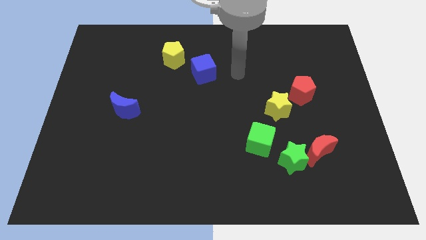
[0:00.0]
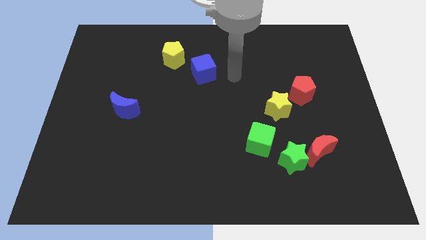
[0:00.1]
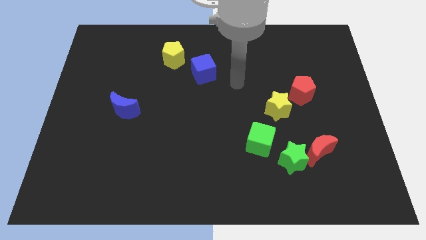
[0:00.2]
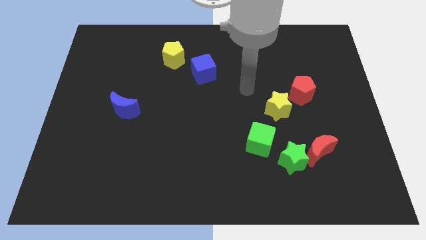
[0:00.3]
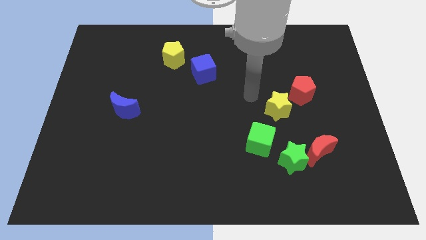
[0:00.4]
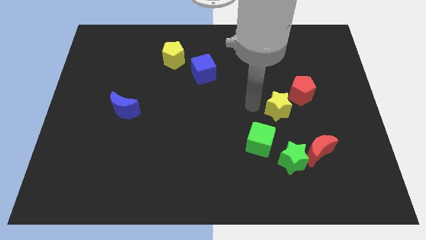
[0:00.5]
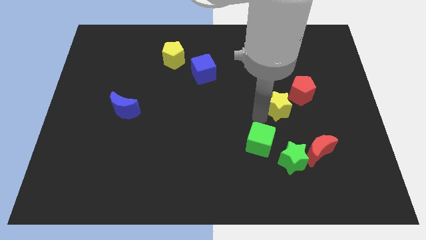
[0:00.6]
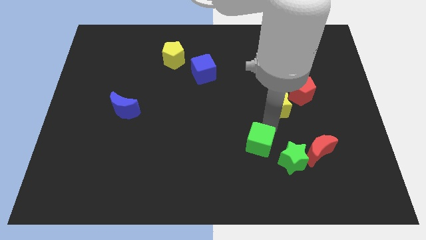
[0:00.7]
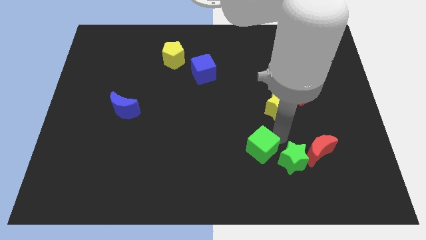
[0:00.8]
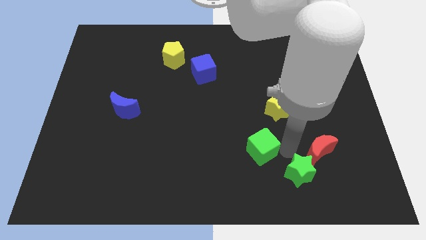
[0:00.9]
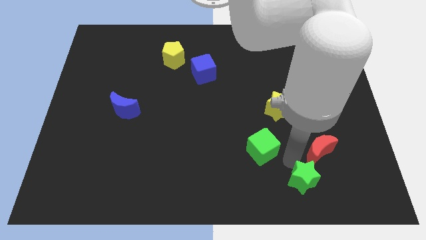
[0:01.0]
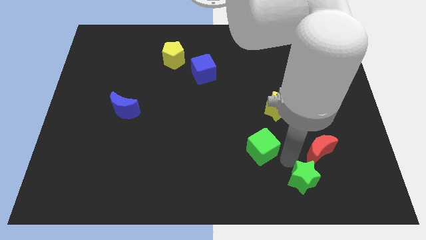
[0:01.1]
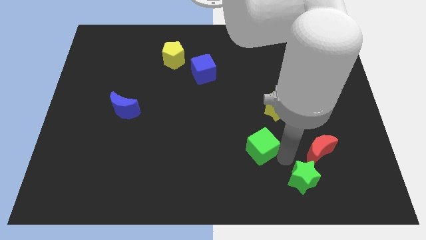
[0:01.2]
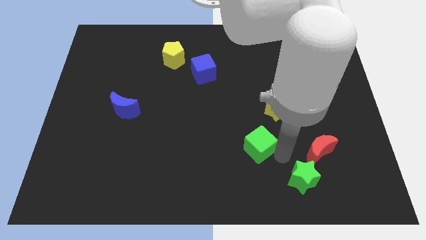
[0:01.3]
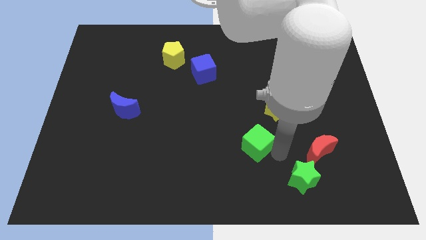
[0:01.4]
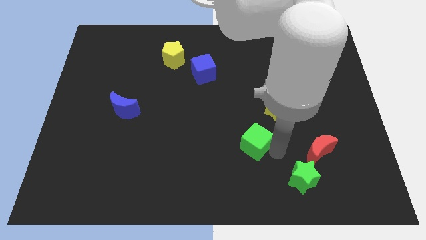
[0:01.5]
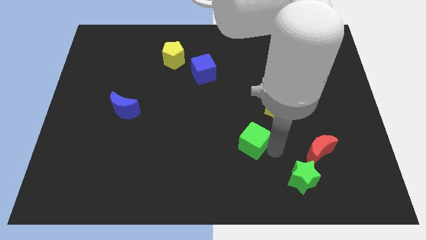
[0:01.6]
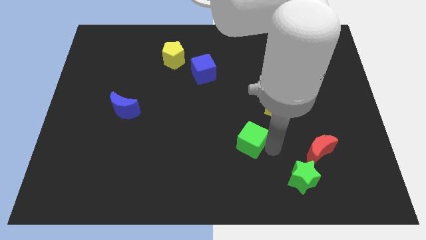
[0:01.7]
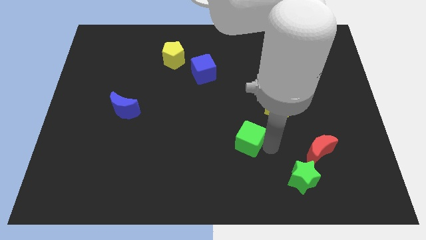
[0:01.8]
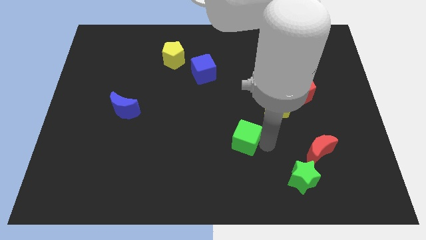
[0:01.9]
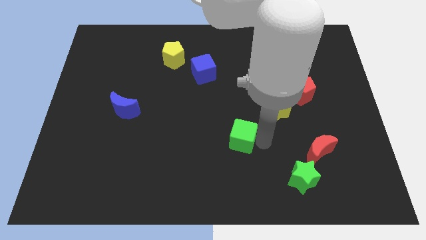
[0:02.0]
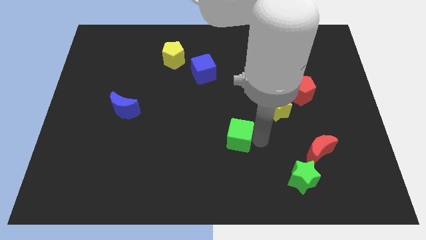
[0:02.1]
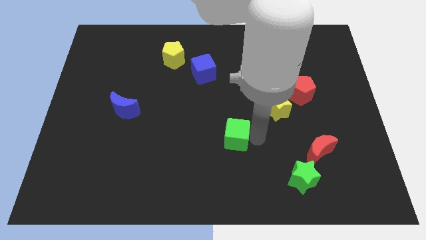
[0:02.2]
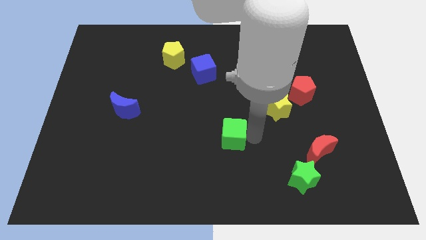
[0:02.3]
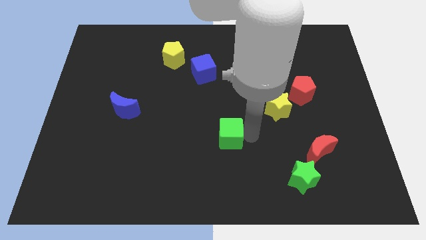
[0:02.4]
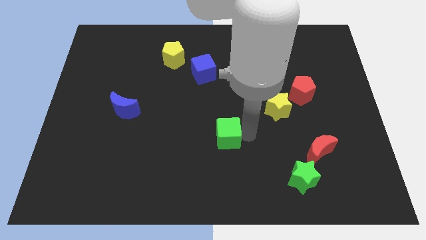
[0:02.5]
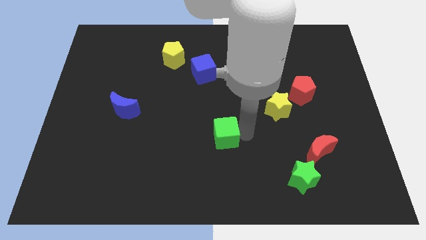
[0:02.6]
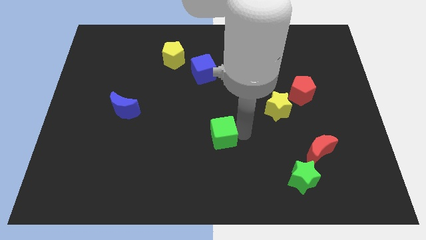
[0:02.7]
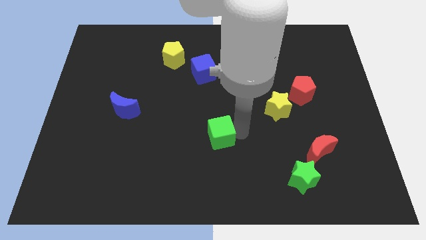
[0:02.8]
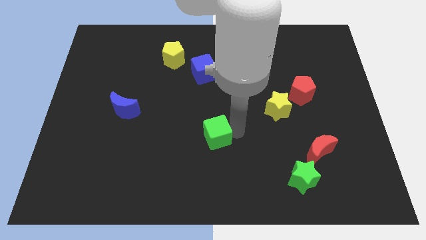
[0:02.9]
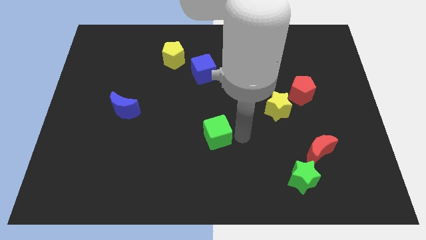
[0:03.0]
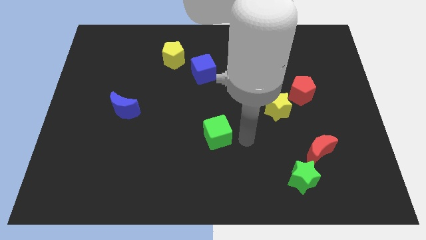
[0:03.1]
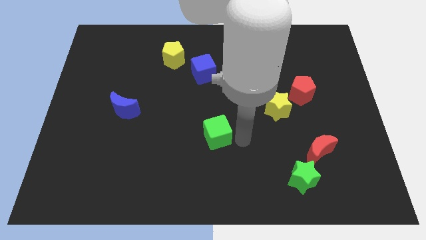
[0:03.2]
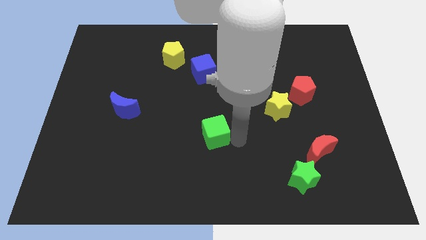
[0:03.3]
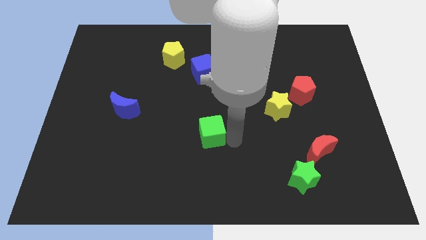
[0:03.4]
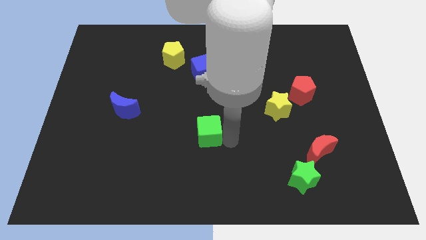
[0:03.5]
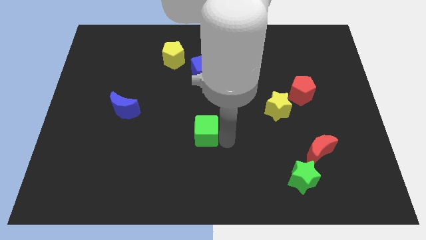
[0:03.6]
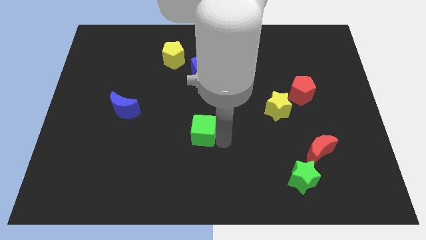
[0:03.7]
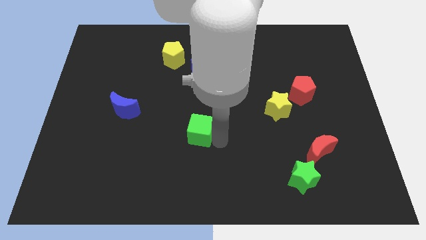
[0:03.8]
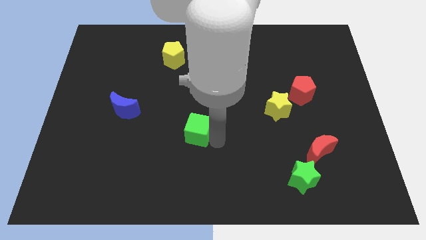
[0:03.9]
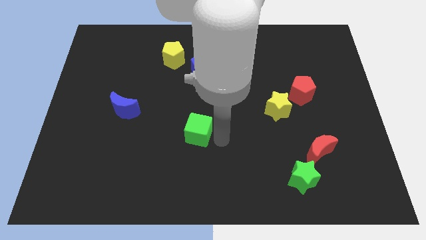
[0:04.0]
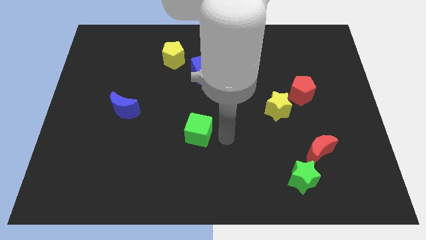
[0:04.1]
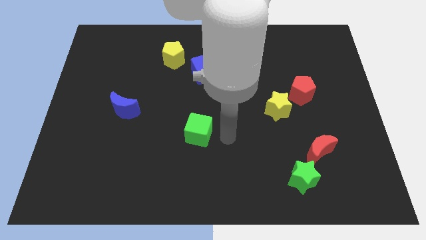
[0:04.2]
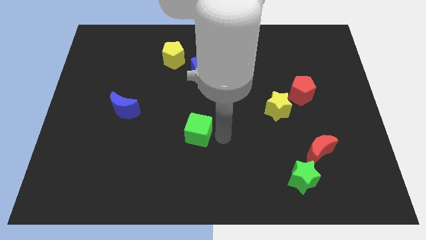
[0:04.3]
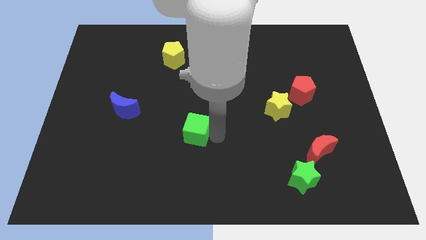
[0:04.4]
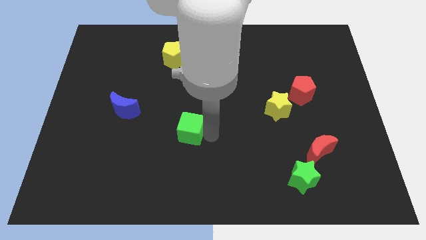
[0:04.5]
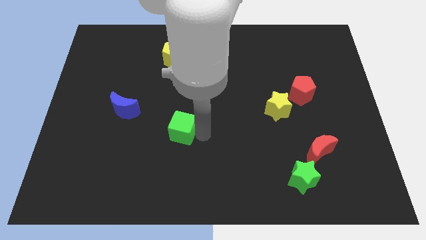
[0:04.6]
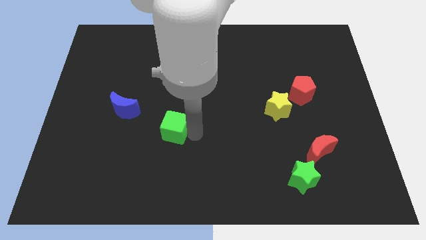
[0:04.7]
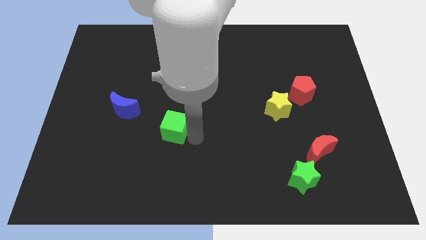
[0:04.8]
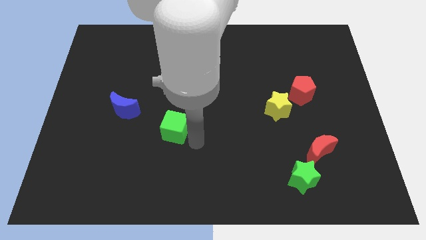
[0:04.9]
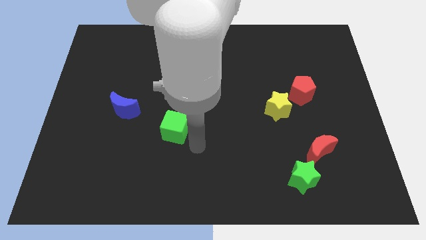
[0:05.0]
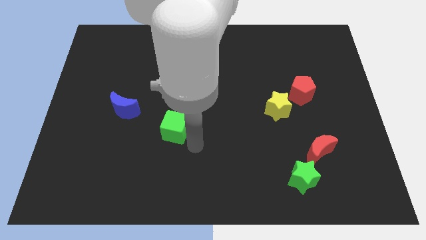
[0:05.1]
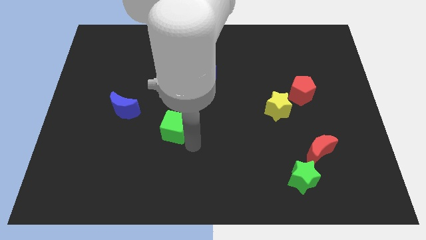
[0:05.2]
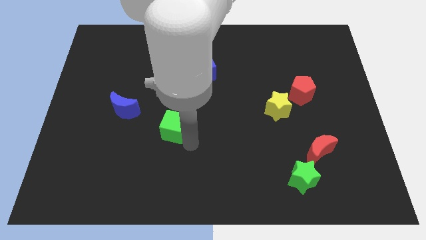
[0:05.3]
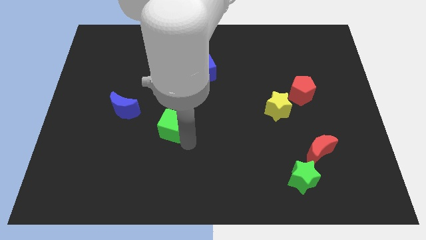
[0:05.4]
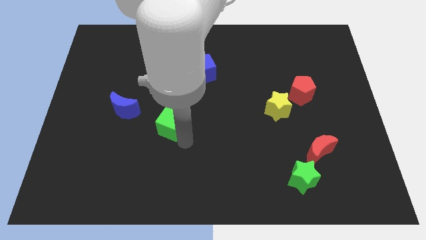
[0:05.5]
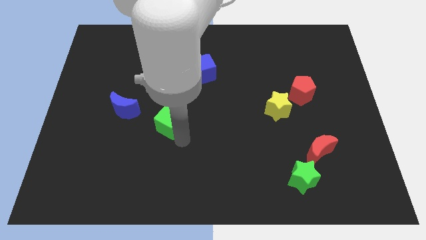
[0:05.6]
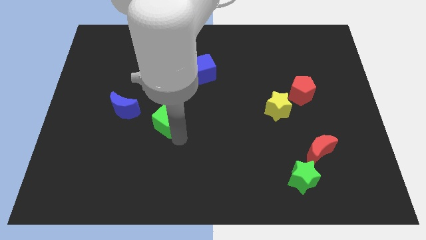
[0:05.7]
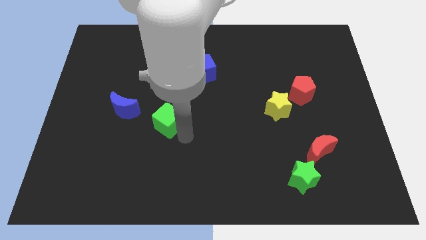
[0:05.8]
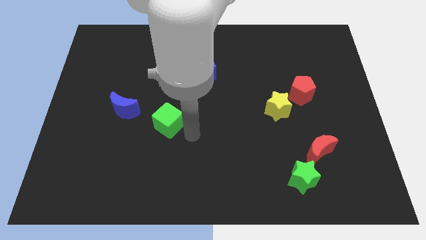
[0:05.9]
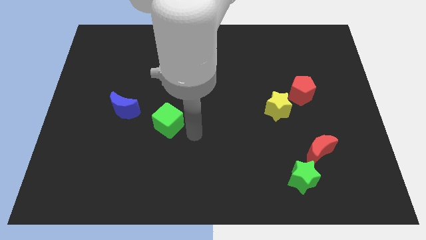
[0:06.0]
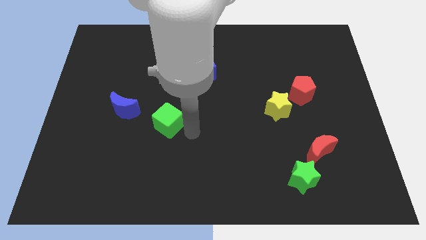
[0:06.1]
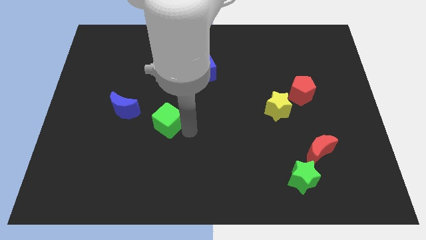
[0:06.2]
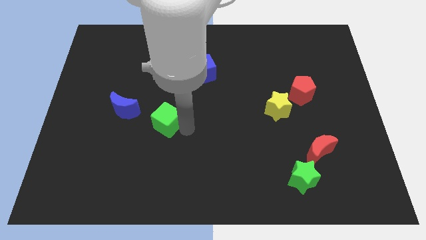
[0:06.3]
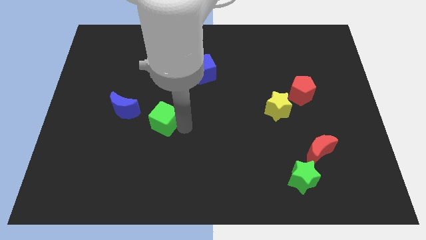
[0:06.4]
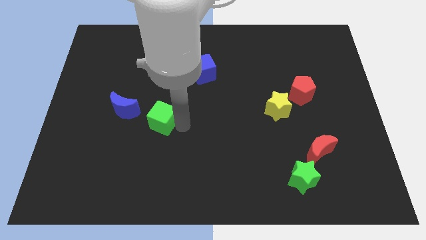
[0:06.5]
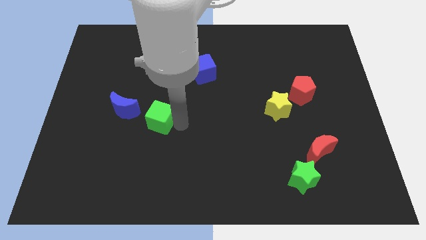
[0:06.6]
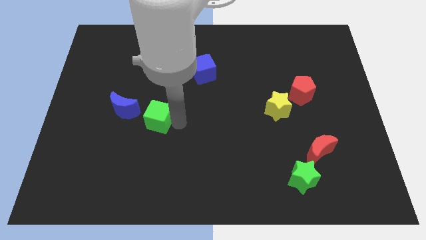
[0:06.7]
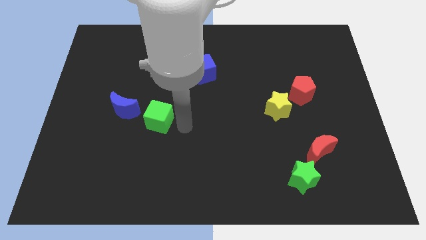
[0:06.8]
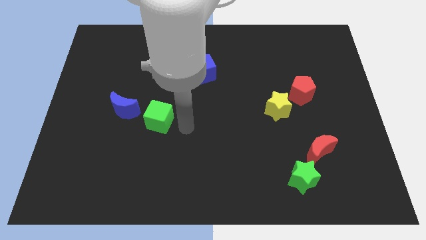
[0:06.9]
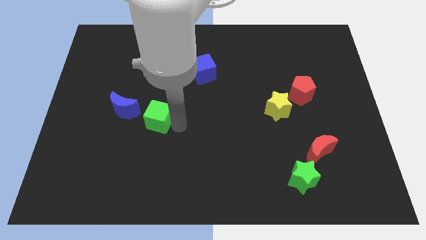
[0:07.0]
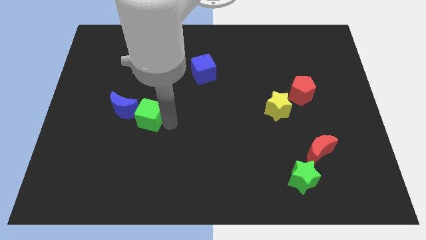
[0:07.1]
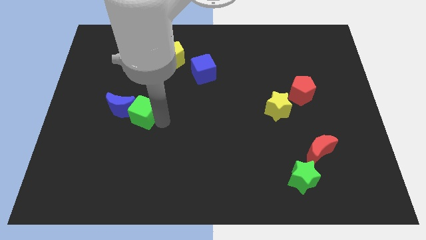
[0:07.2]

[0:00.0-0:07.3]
put the green cube close to the blue moon
